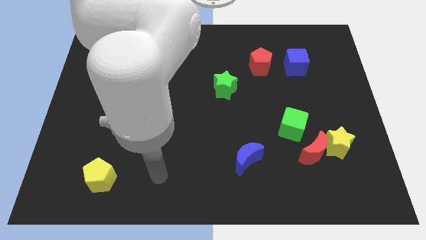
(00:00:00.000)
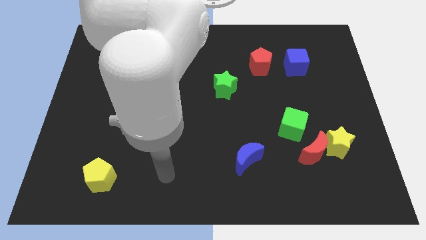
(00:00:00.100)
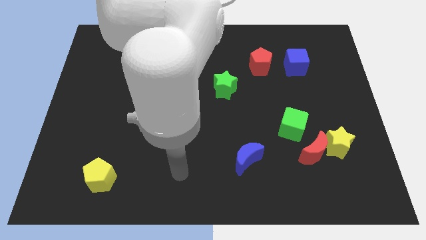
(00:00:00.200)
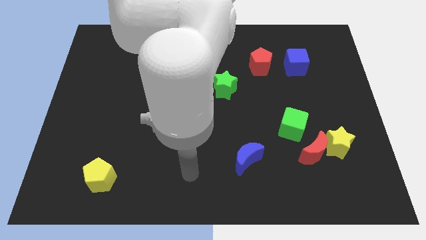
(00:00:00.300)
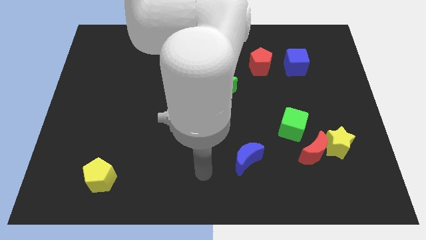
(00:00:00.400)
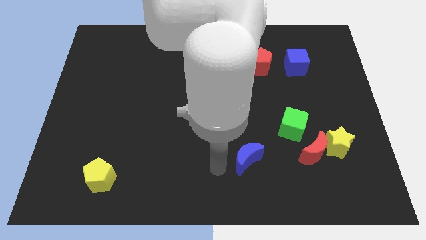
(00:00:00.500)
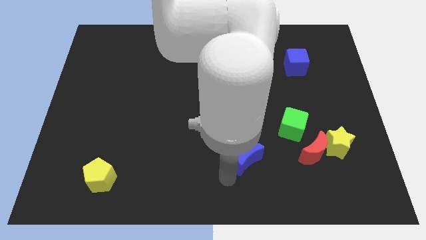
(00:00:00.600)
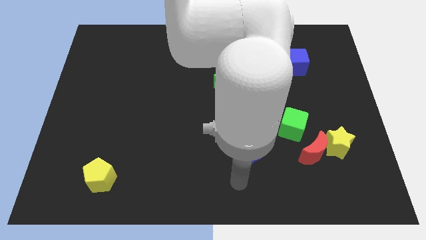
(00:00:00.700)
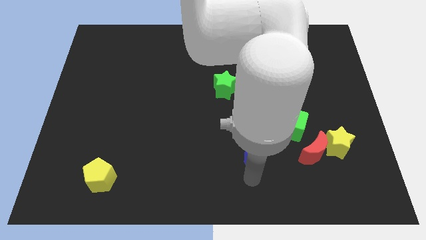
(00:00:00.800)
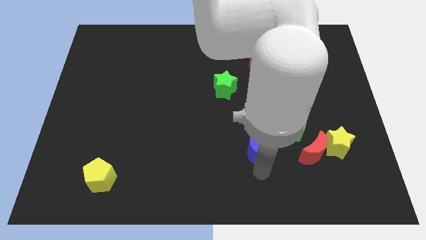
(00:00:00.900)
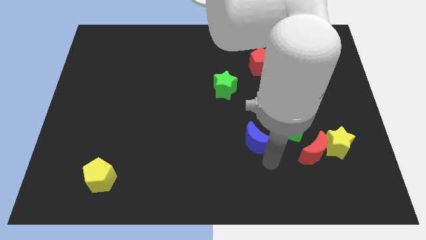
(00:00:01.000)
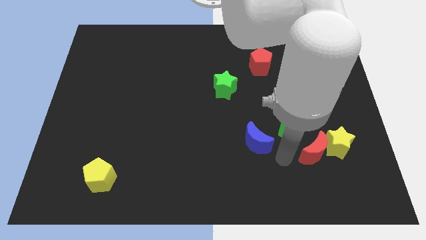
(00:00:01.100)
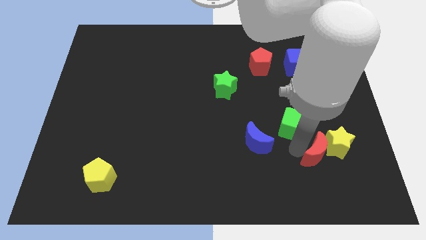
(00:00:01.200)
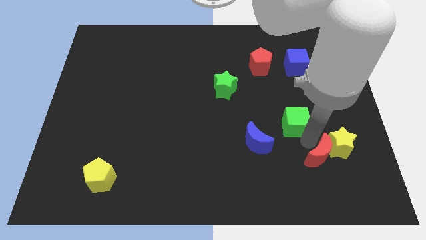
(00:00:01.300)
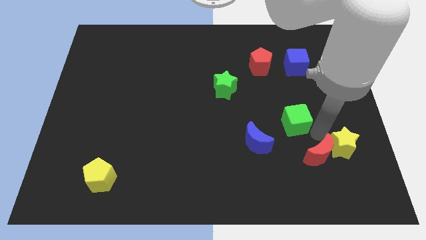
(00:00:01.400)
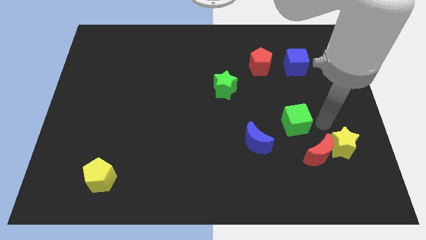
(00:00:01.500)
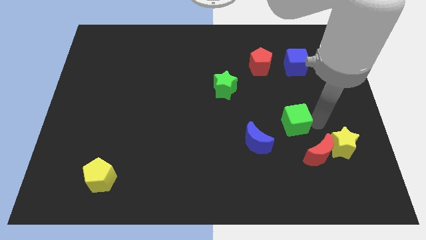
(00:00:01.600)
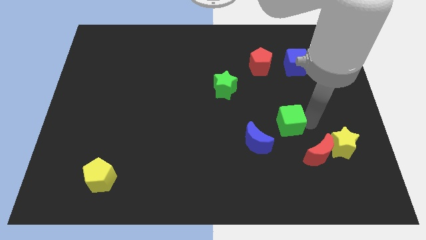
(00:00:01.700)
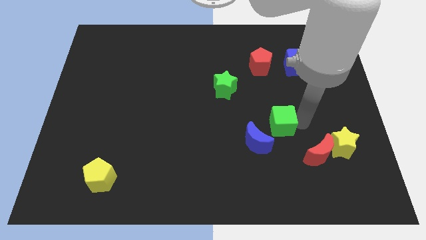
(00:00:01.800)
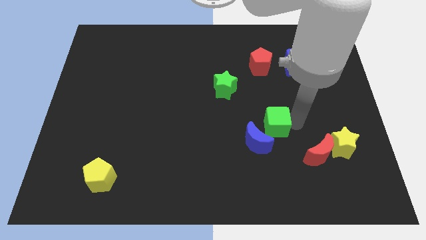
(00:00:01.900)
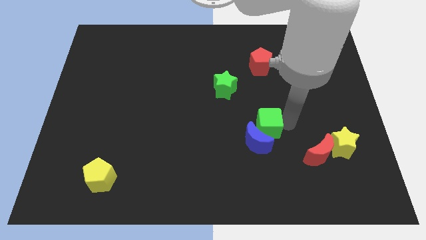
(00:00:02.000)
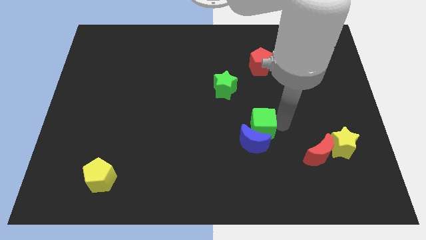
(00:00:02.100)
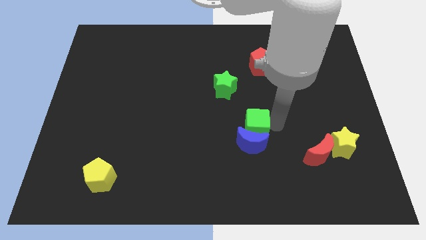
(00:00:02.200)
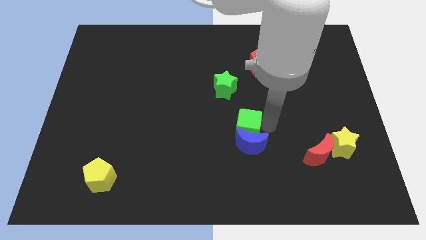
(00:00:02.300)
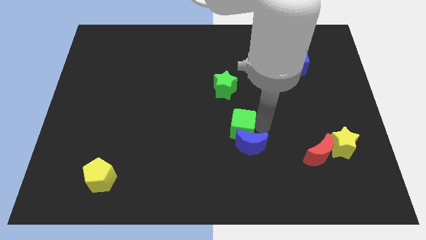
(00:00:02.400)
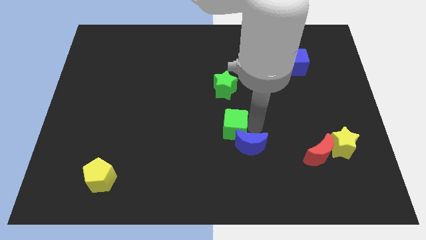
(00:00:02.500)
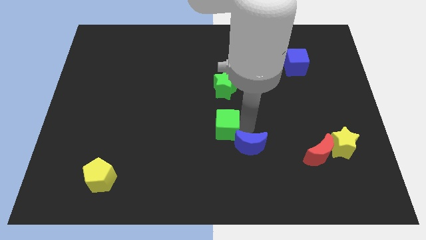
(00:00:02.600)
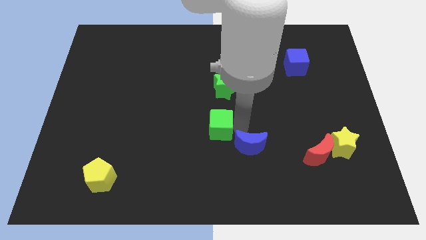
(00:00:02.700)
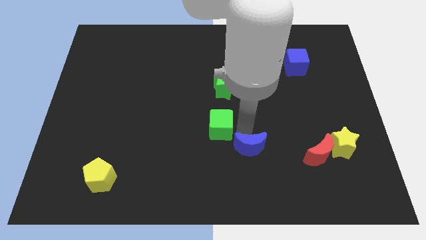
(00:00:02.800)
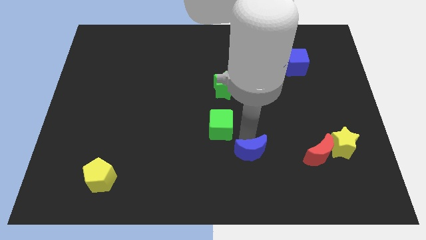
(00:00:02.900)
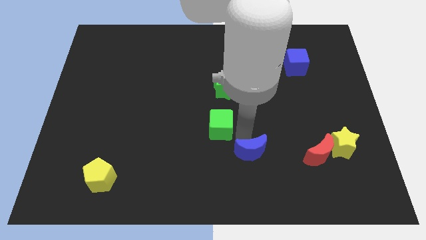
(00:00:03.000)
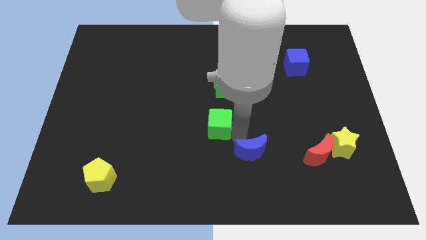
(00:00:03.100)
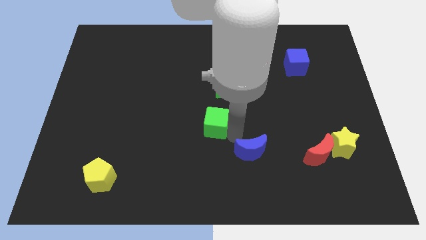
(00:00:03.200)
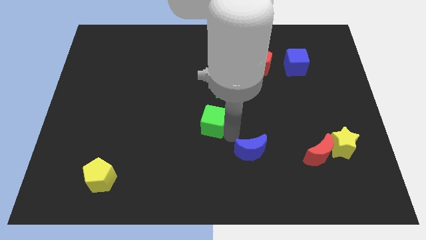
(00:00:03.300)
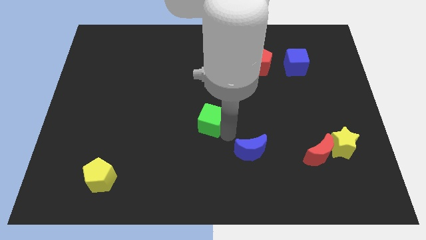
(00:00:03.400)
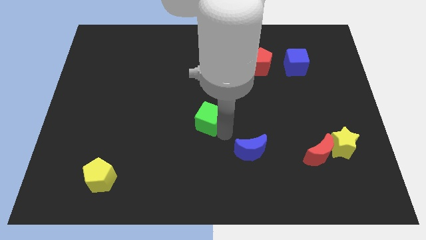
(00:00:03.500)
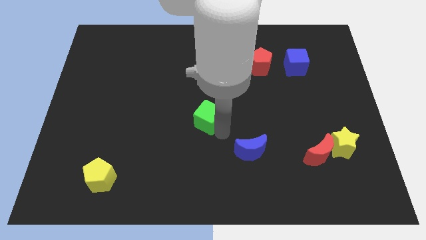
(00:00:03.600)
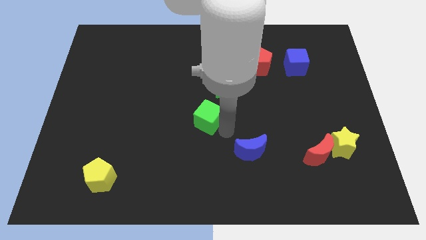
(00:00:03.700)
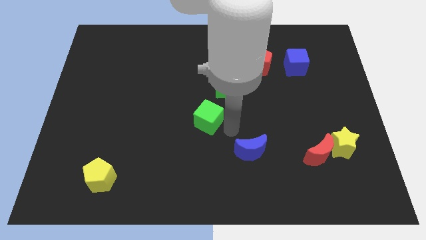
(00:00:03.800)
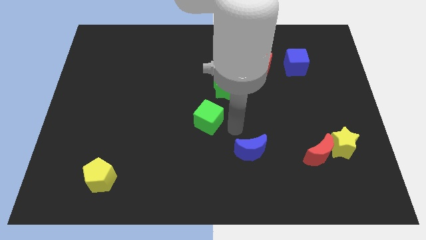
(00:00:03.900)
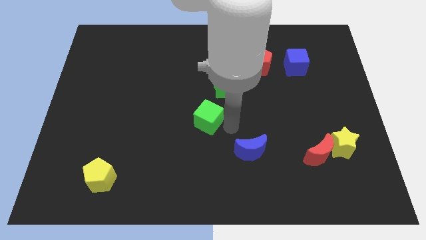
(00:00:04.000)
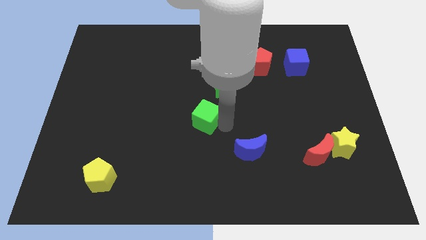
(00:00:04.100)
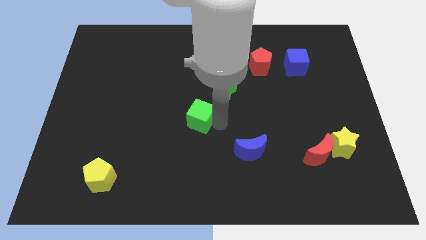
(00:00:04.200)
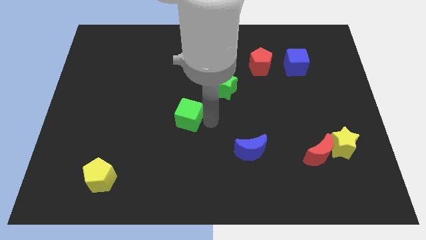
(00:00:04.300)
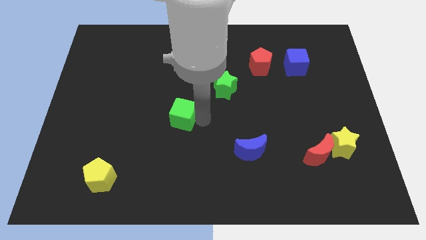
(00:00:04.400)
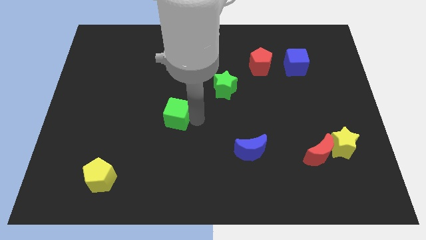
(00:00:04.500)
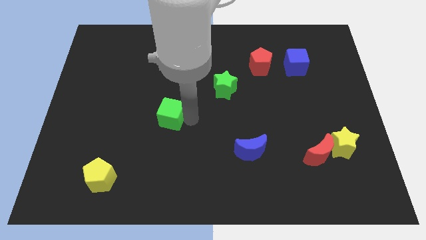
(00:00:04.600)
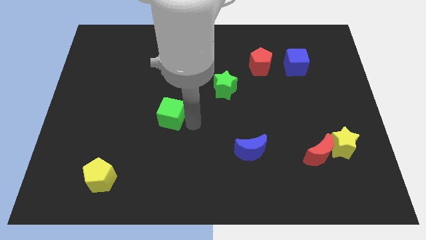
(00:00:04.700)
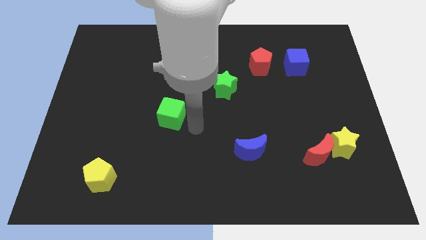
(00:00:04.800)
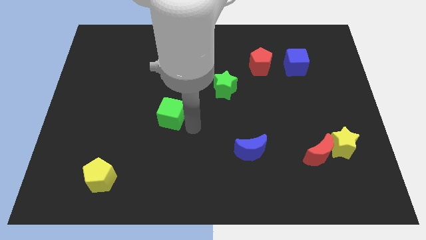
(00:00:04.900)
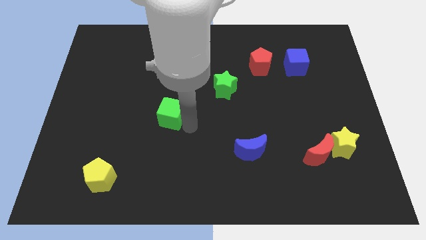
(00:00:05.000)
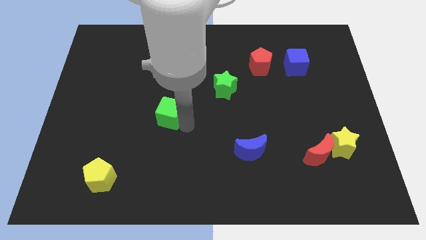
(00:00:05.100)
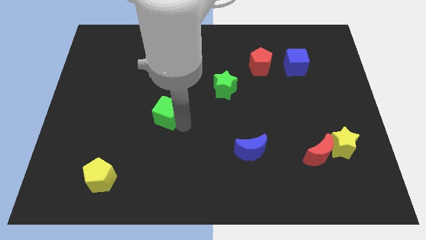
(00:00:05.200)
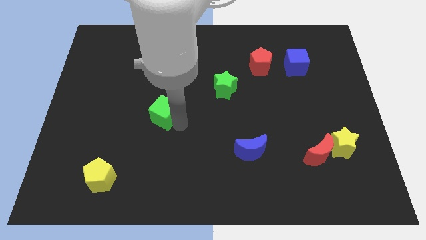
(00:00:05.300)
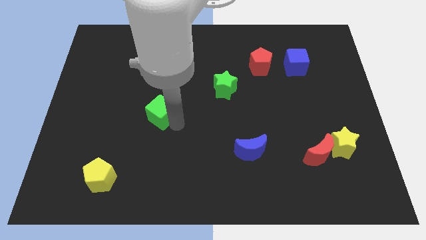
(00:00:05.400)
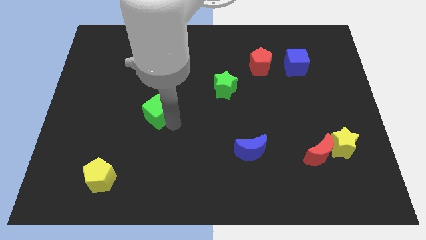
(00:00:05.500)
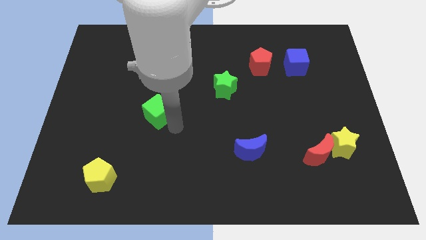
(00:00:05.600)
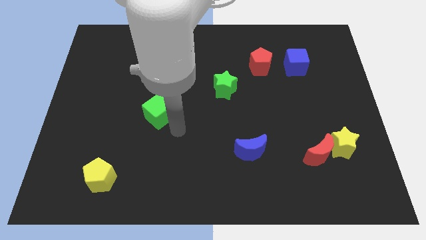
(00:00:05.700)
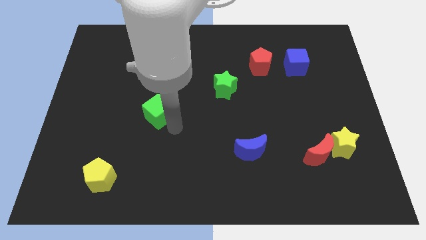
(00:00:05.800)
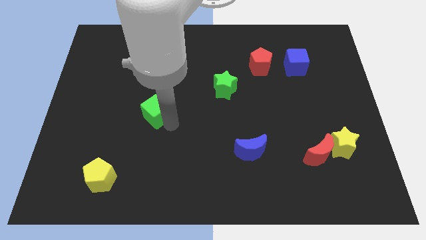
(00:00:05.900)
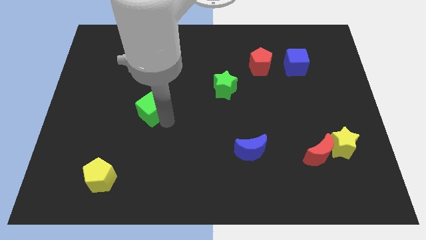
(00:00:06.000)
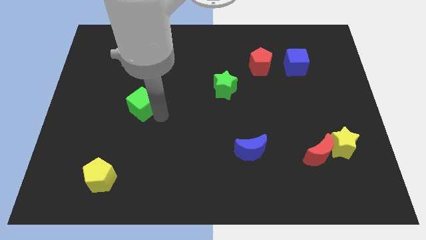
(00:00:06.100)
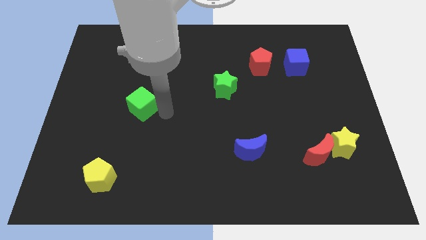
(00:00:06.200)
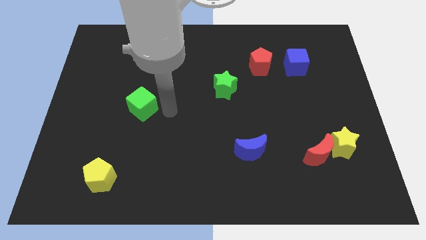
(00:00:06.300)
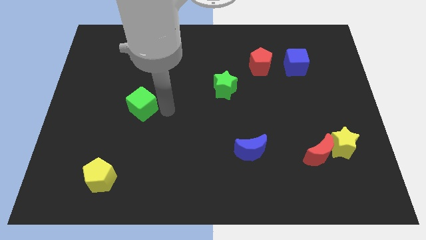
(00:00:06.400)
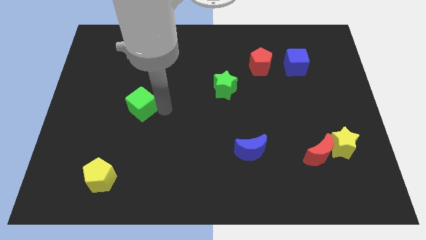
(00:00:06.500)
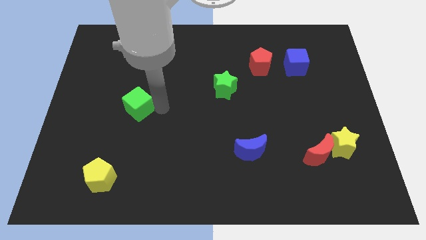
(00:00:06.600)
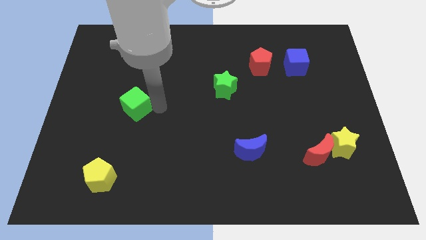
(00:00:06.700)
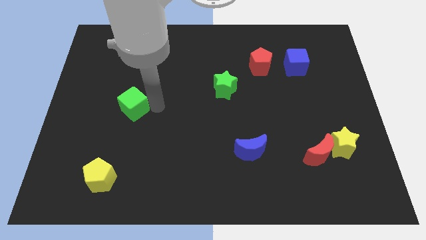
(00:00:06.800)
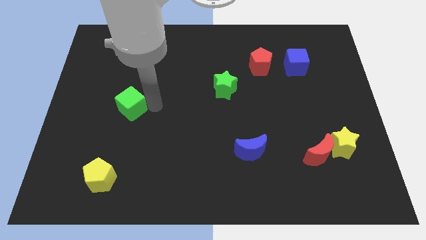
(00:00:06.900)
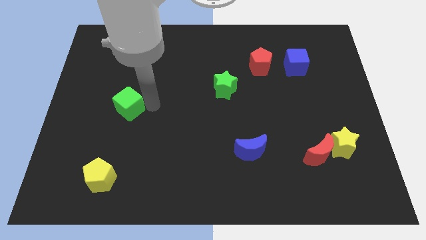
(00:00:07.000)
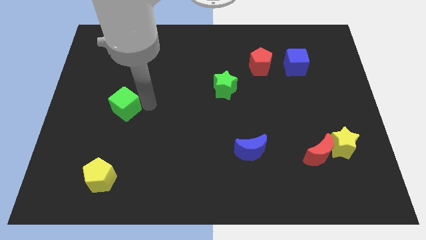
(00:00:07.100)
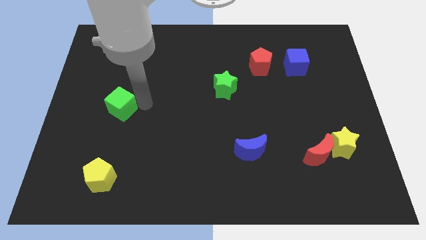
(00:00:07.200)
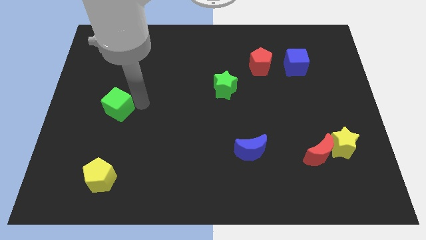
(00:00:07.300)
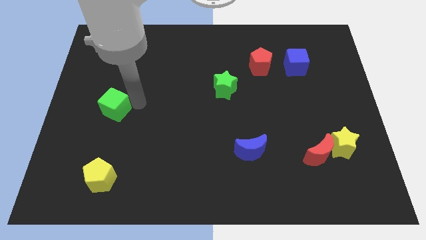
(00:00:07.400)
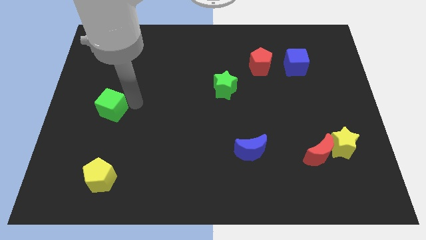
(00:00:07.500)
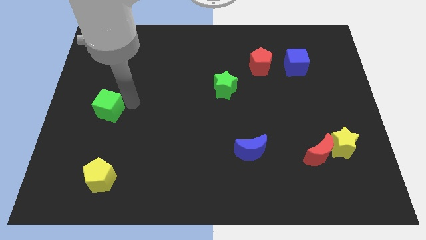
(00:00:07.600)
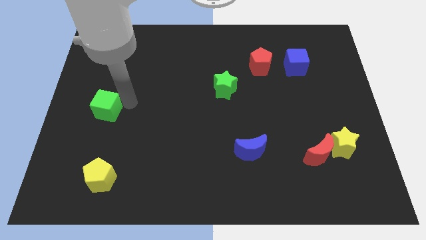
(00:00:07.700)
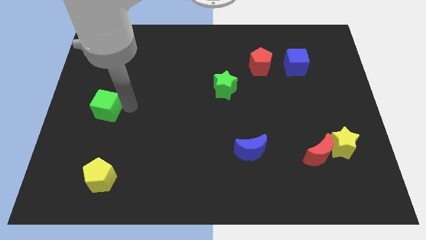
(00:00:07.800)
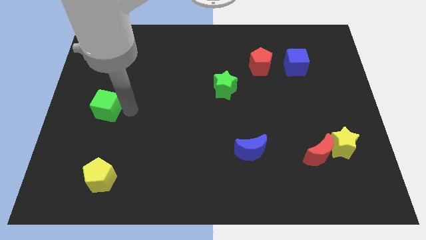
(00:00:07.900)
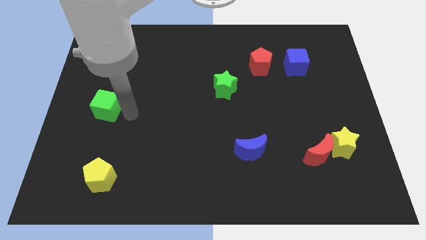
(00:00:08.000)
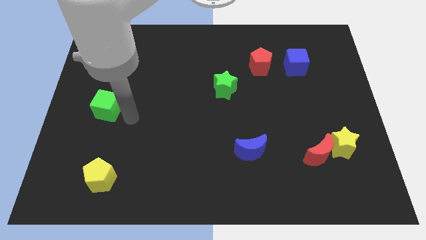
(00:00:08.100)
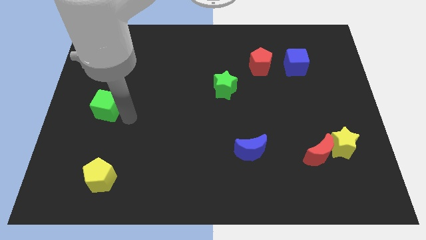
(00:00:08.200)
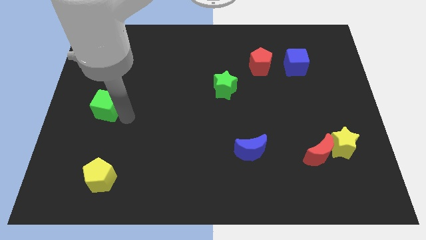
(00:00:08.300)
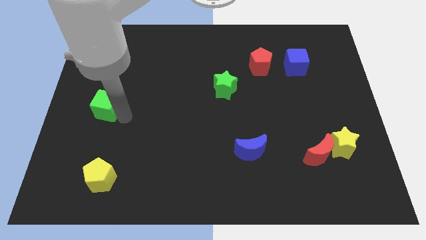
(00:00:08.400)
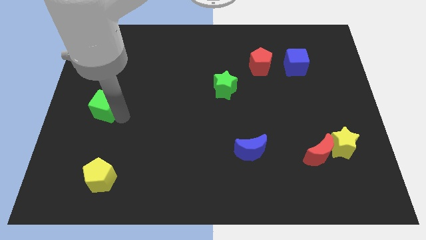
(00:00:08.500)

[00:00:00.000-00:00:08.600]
push the green cube to the left side of the board
